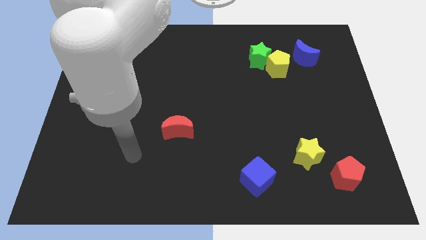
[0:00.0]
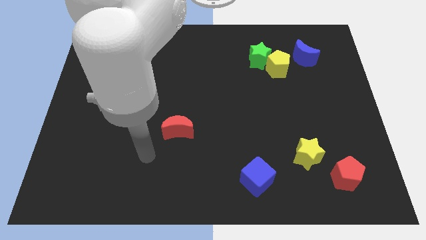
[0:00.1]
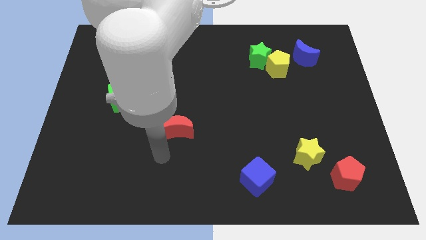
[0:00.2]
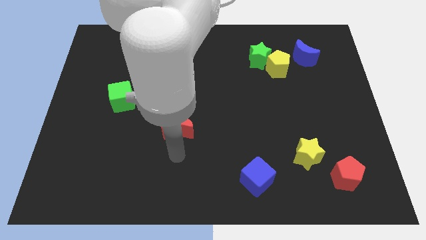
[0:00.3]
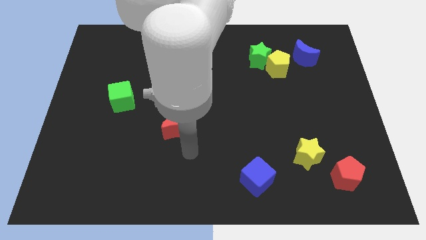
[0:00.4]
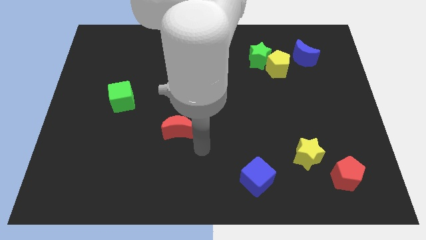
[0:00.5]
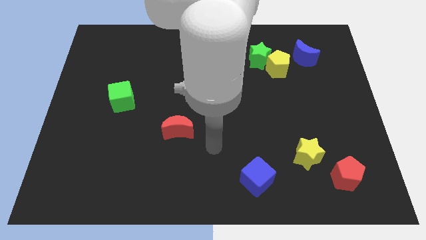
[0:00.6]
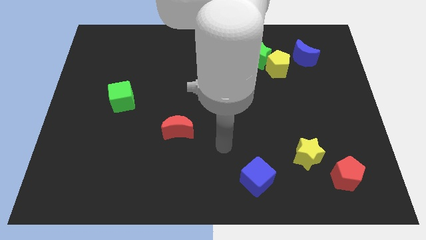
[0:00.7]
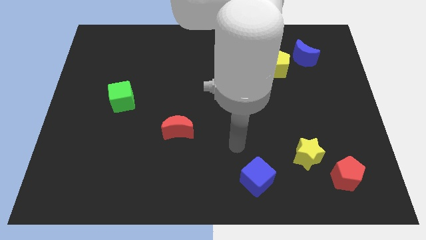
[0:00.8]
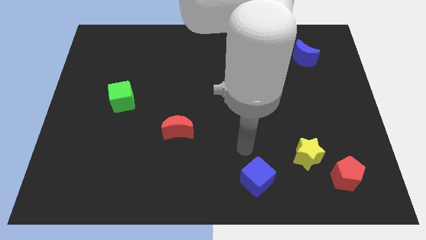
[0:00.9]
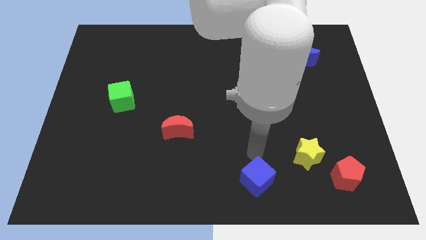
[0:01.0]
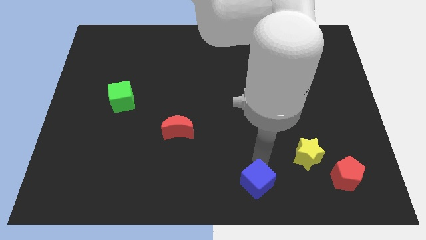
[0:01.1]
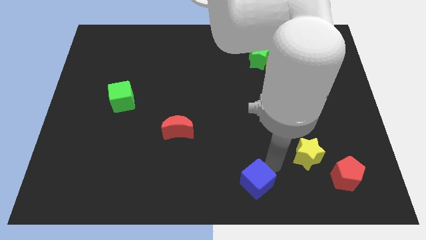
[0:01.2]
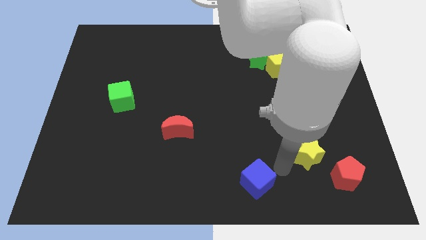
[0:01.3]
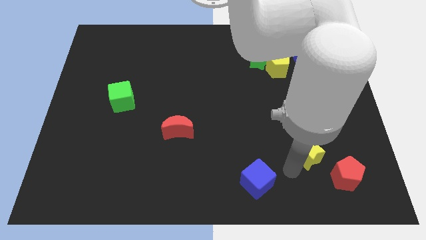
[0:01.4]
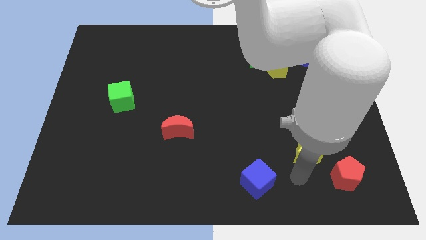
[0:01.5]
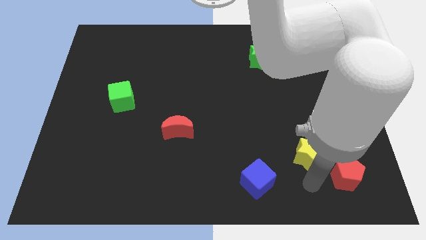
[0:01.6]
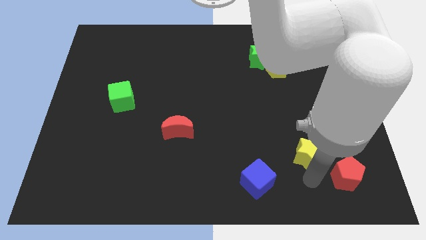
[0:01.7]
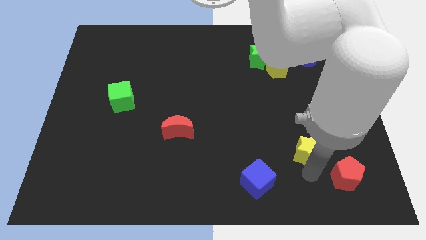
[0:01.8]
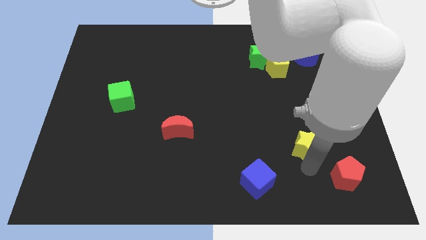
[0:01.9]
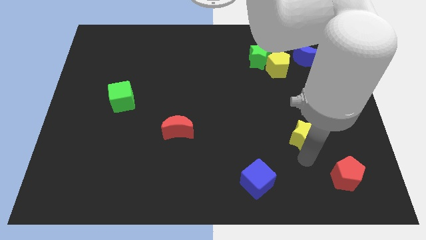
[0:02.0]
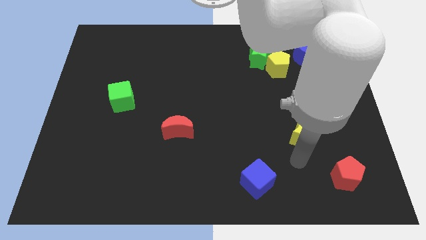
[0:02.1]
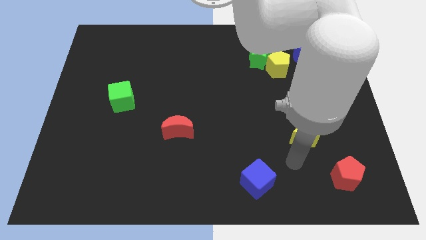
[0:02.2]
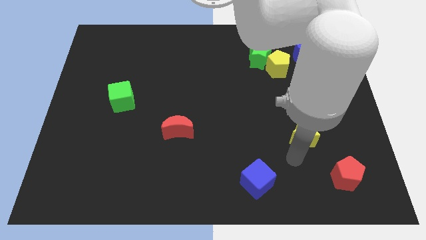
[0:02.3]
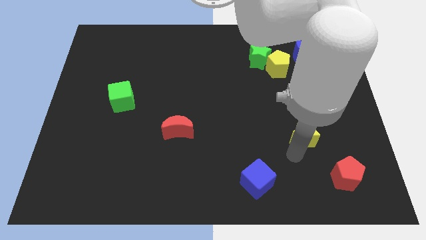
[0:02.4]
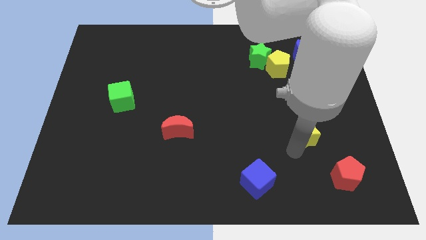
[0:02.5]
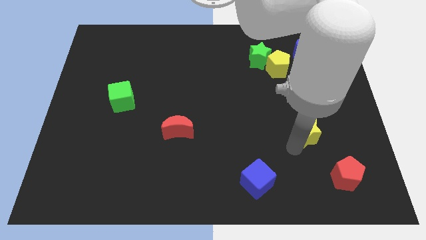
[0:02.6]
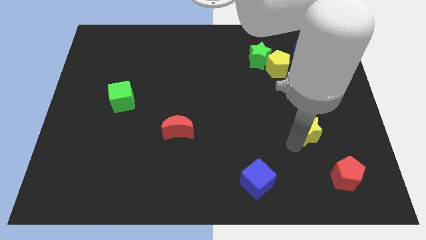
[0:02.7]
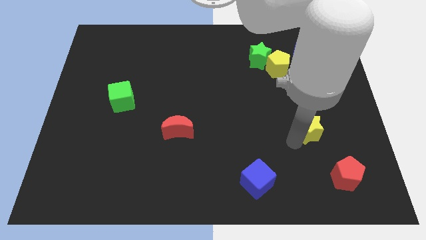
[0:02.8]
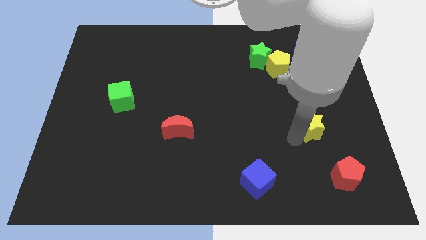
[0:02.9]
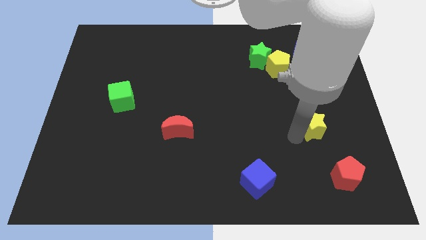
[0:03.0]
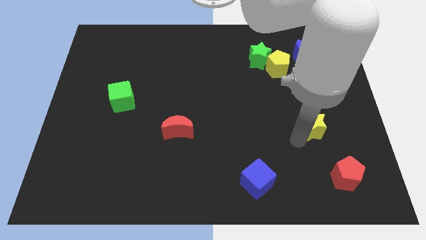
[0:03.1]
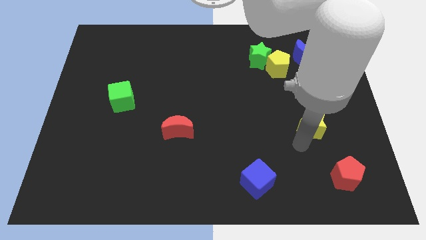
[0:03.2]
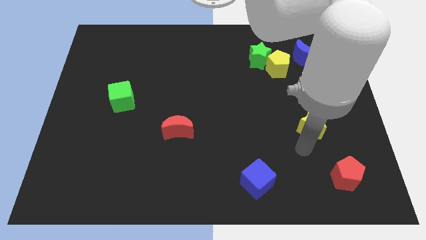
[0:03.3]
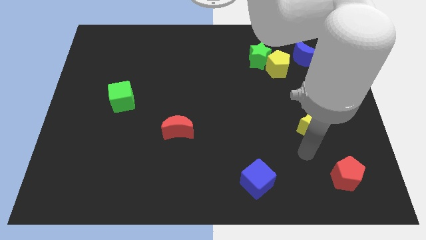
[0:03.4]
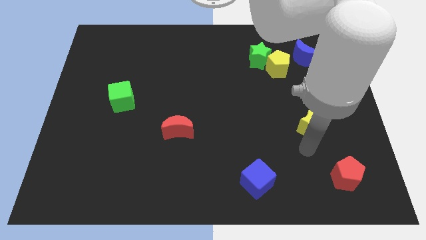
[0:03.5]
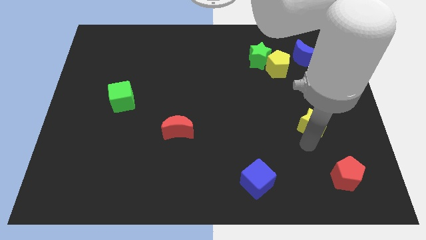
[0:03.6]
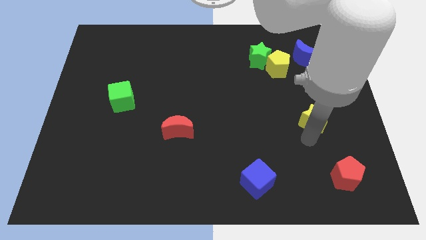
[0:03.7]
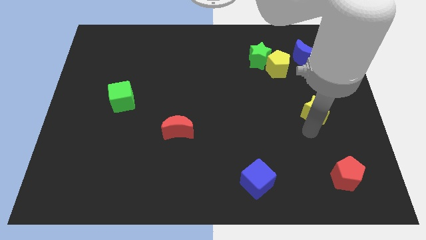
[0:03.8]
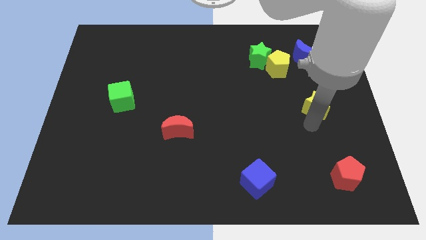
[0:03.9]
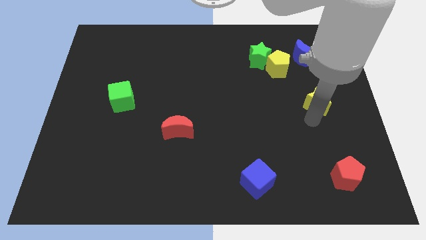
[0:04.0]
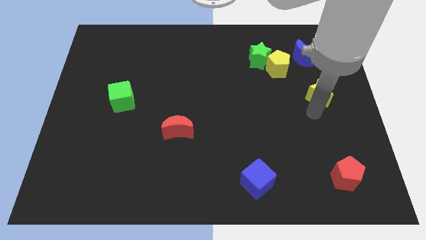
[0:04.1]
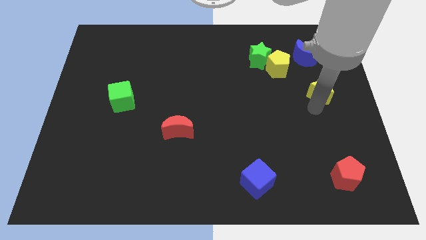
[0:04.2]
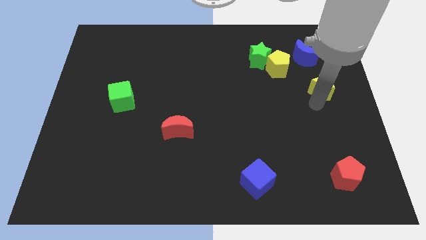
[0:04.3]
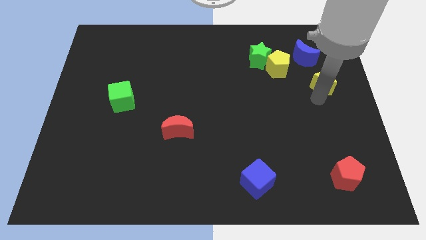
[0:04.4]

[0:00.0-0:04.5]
slide the yellow star to the bottom right side of the blue moon

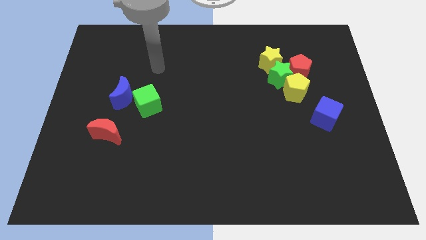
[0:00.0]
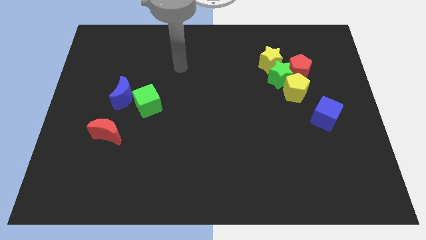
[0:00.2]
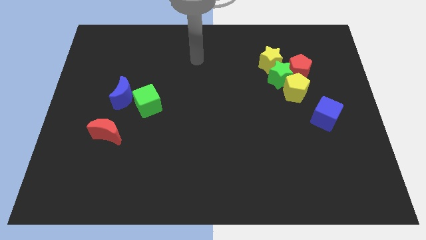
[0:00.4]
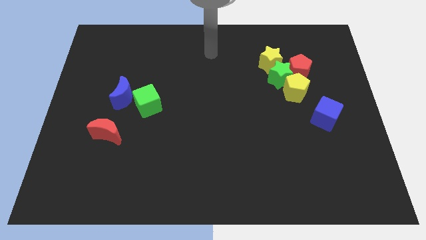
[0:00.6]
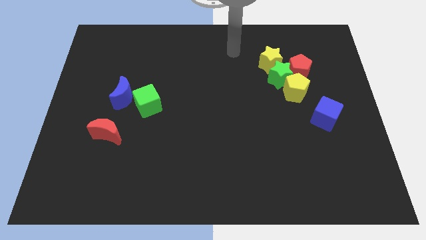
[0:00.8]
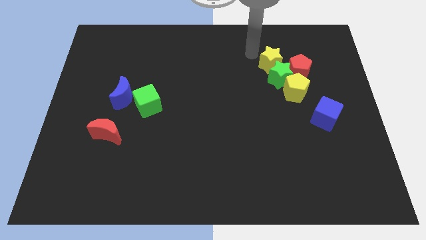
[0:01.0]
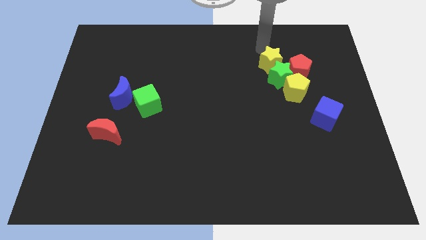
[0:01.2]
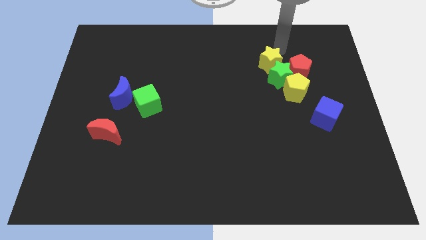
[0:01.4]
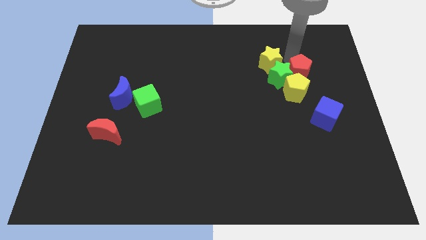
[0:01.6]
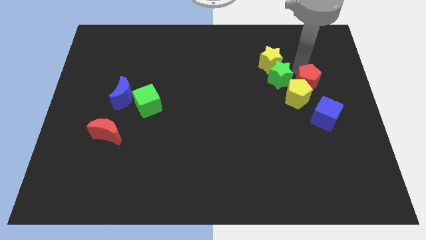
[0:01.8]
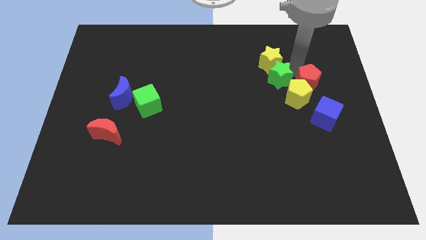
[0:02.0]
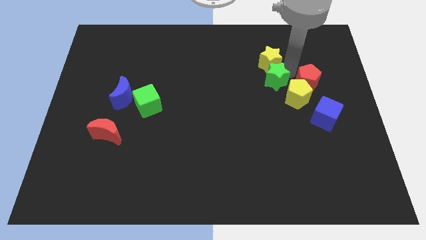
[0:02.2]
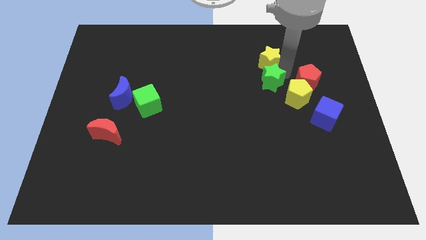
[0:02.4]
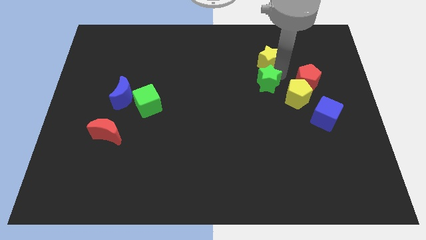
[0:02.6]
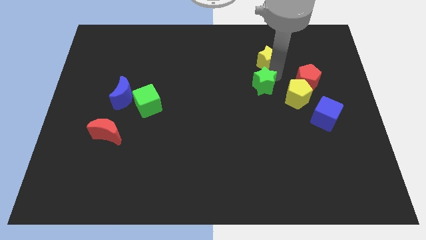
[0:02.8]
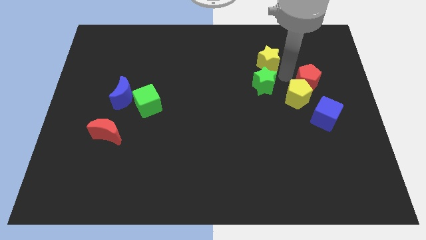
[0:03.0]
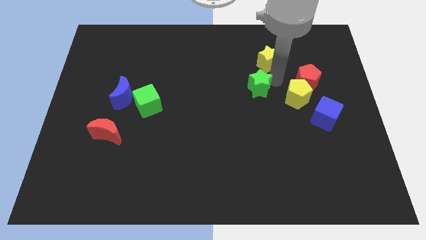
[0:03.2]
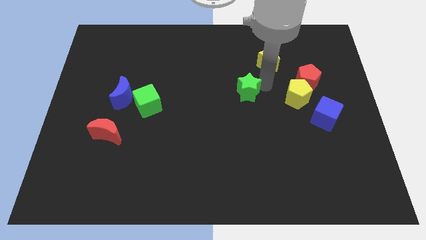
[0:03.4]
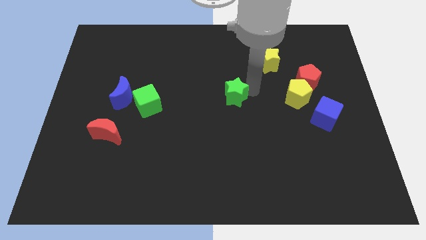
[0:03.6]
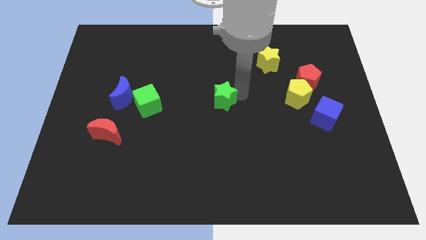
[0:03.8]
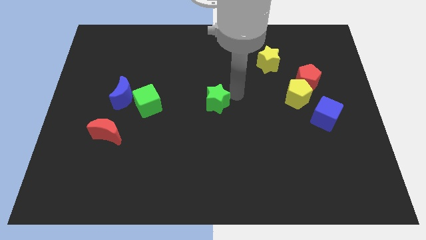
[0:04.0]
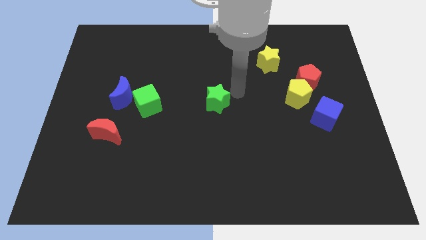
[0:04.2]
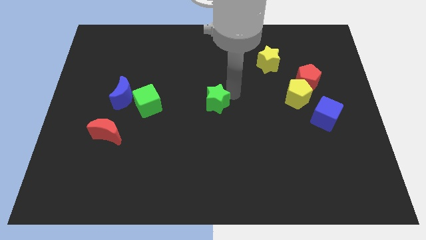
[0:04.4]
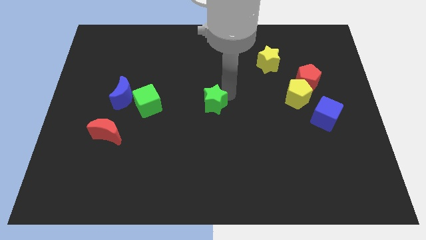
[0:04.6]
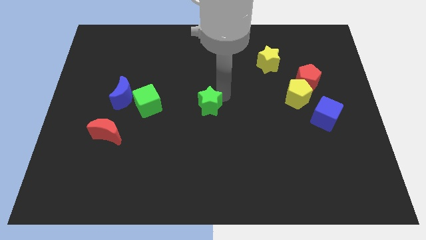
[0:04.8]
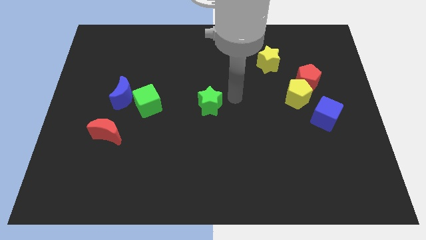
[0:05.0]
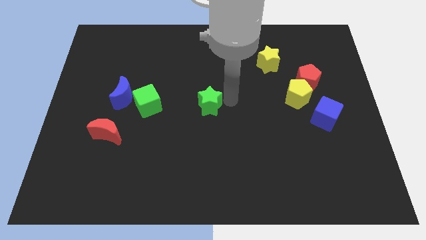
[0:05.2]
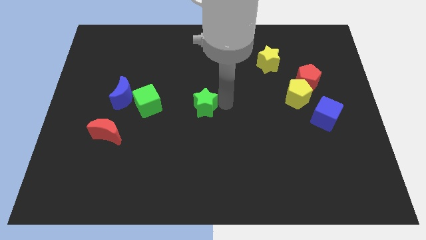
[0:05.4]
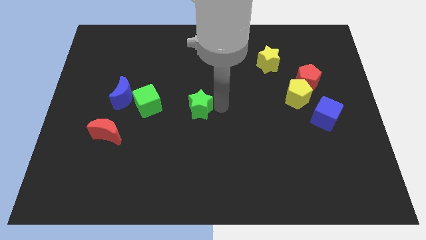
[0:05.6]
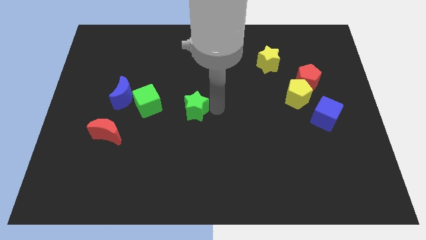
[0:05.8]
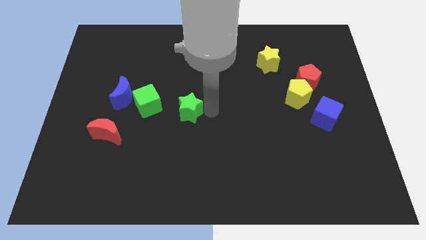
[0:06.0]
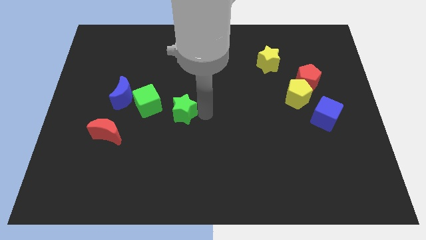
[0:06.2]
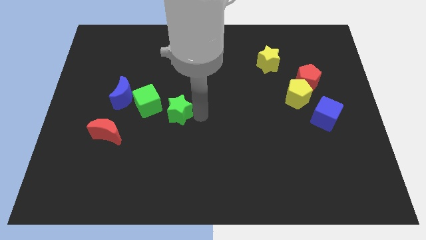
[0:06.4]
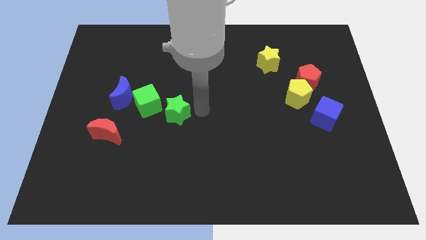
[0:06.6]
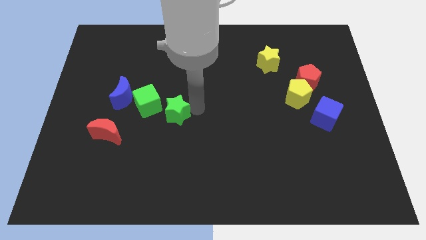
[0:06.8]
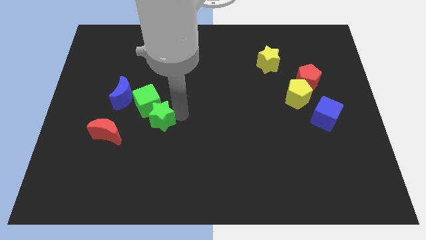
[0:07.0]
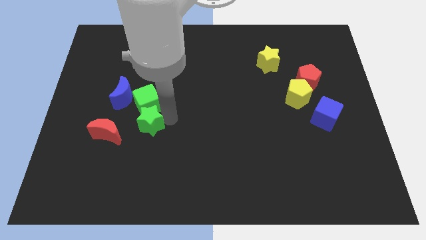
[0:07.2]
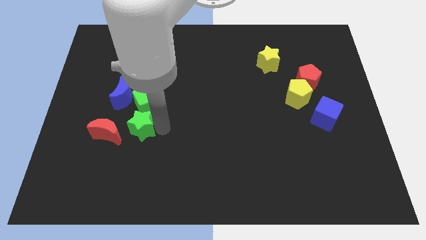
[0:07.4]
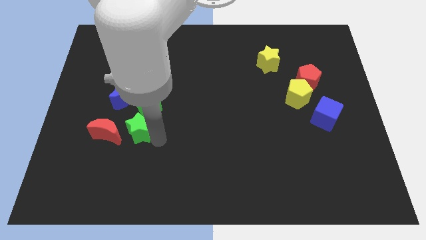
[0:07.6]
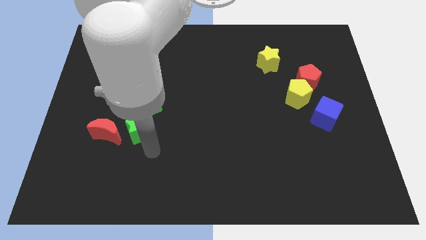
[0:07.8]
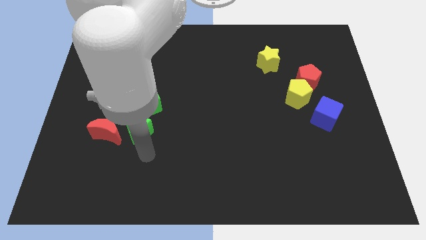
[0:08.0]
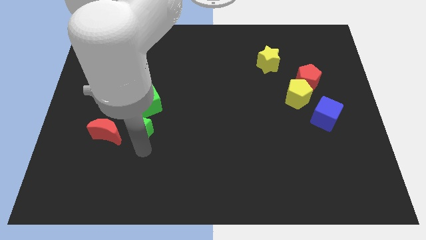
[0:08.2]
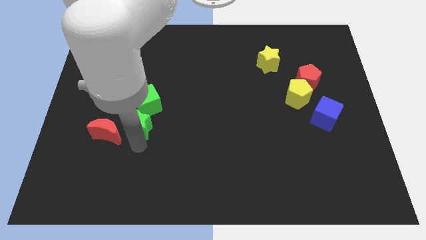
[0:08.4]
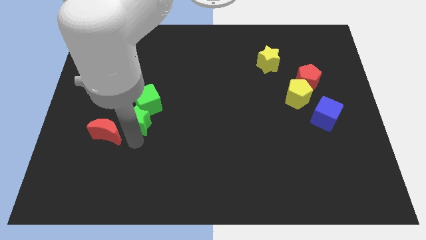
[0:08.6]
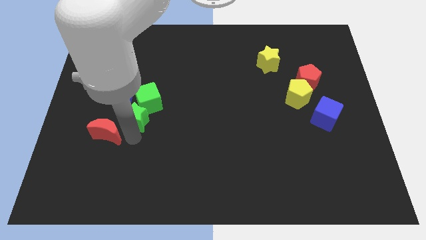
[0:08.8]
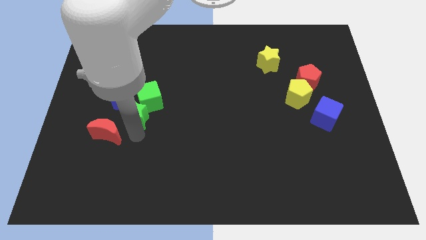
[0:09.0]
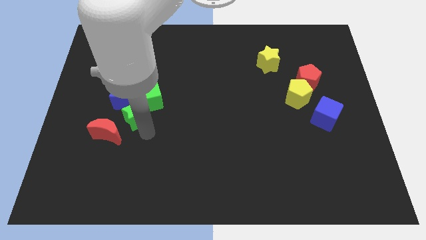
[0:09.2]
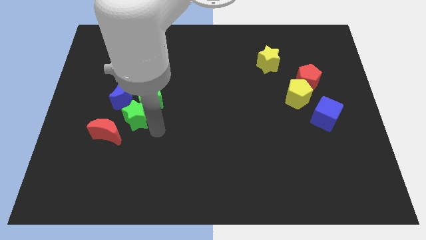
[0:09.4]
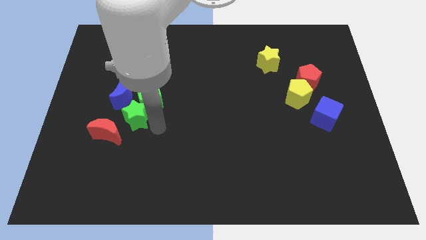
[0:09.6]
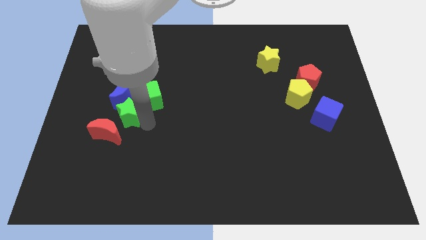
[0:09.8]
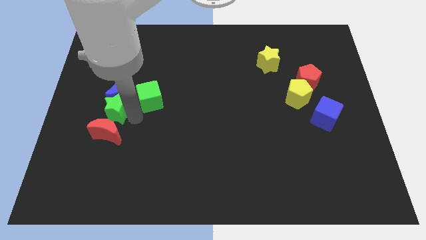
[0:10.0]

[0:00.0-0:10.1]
push the green star to the top left of the red moon
